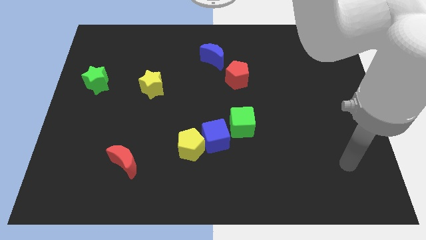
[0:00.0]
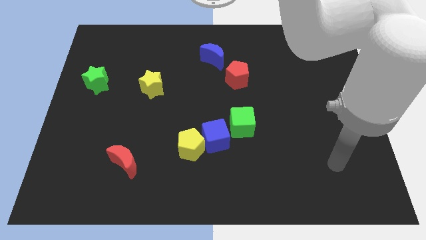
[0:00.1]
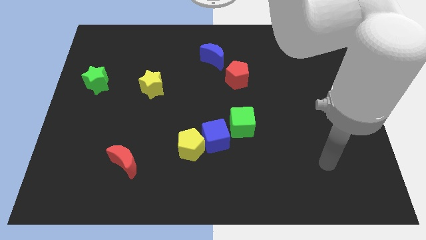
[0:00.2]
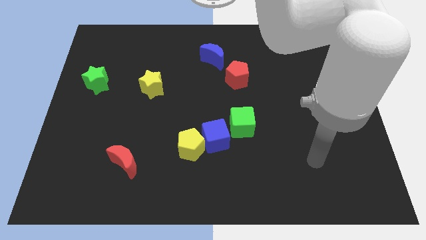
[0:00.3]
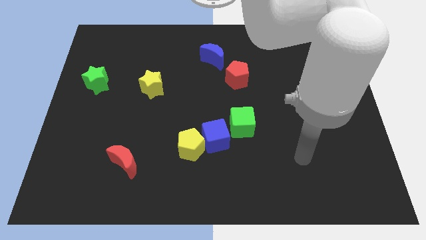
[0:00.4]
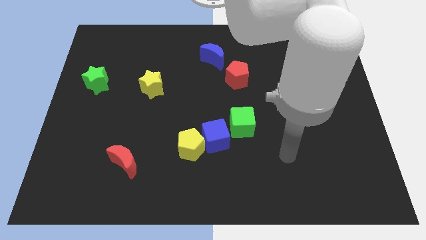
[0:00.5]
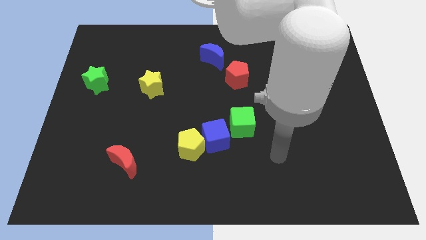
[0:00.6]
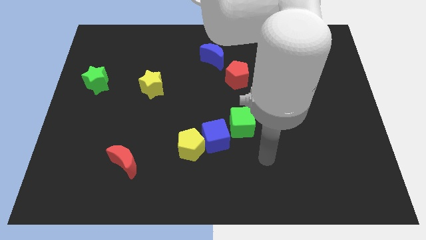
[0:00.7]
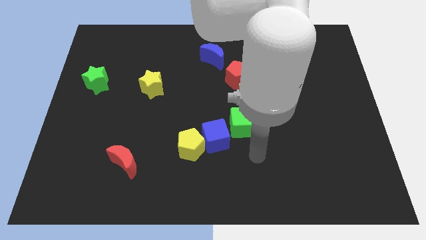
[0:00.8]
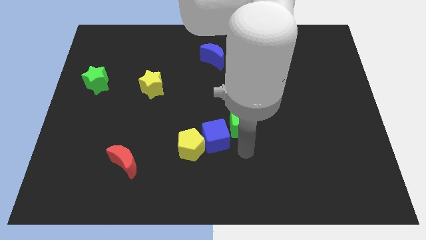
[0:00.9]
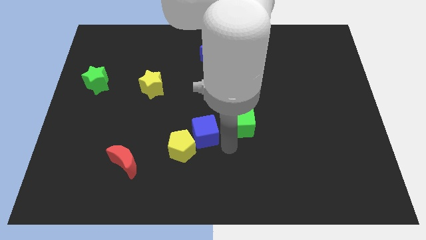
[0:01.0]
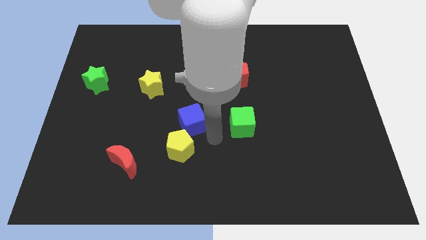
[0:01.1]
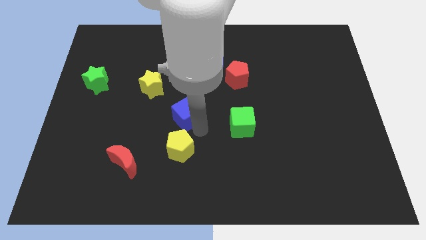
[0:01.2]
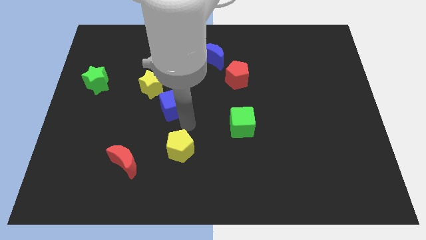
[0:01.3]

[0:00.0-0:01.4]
pull the yellow pentagon apart from the blue cube

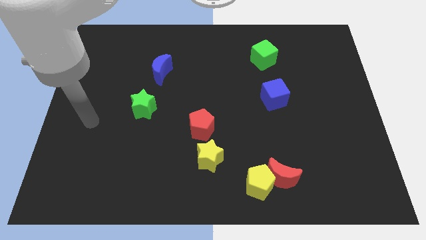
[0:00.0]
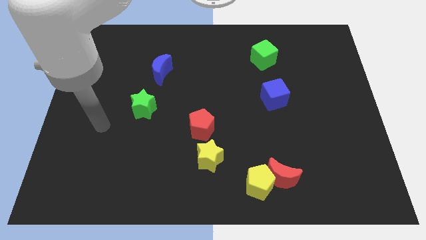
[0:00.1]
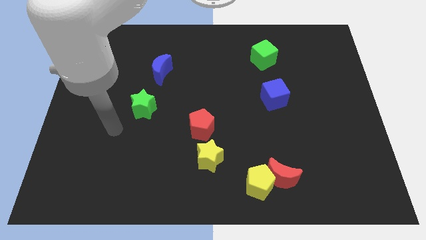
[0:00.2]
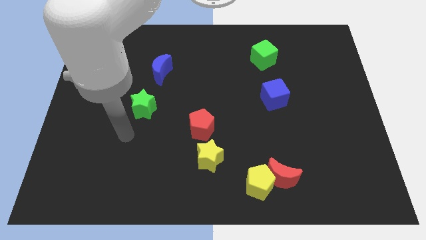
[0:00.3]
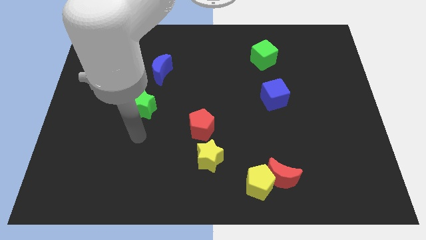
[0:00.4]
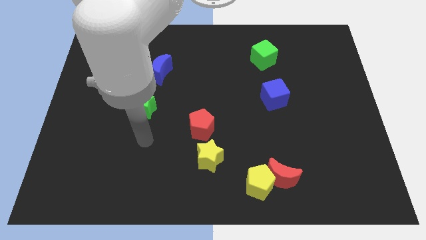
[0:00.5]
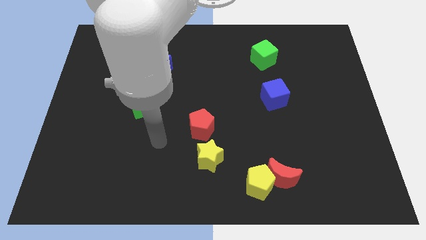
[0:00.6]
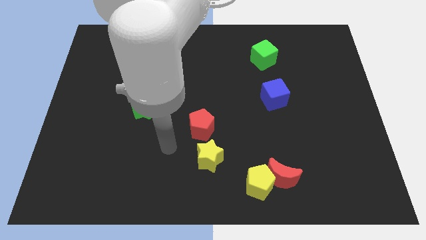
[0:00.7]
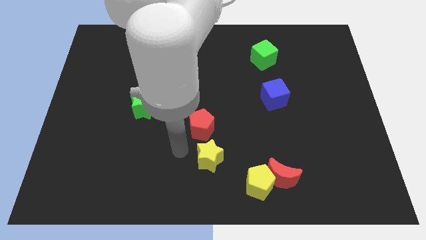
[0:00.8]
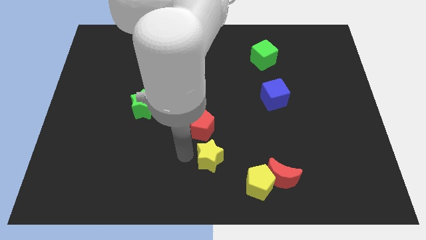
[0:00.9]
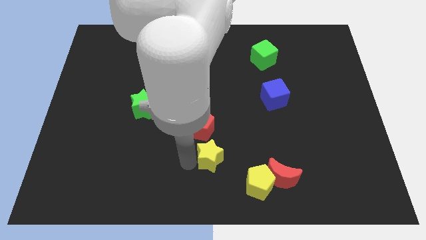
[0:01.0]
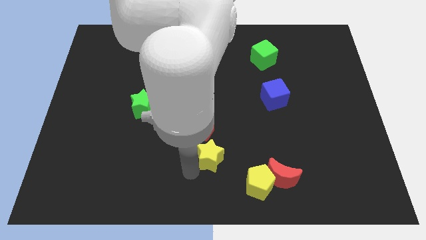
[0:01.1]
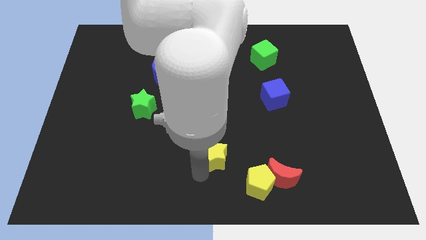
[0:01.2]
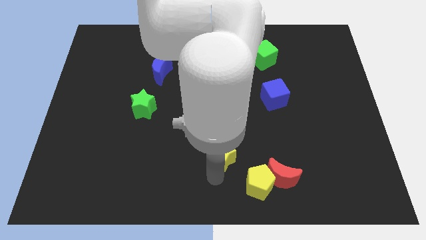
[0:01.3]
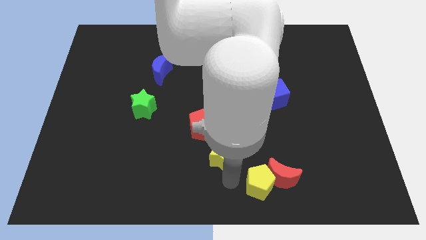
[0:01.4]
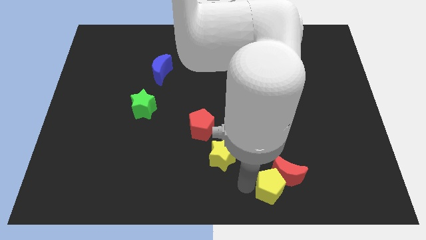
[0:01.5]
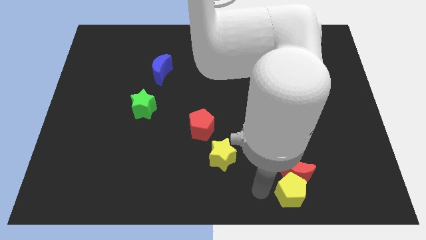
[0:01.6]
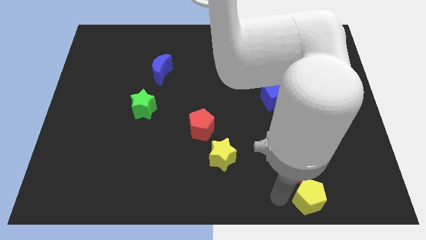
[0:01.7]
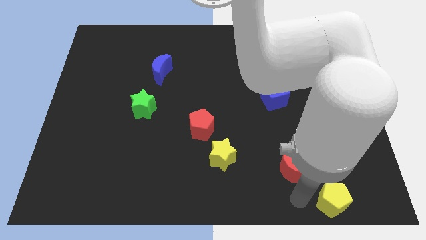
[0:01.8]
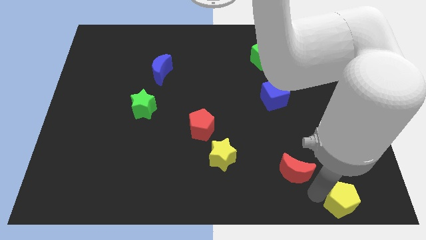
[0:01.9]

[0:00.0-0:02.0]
separate the red moon from the yellow pentagon

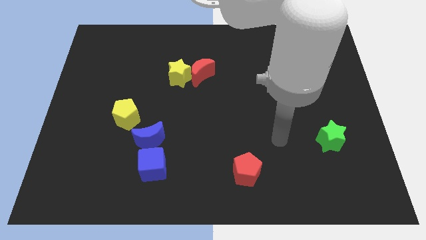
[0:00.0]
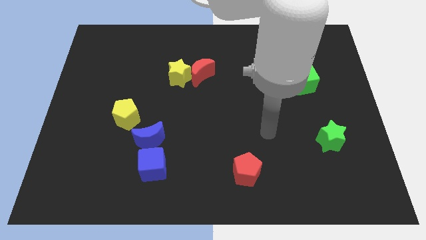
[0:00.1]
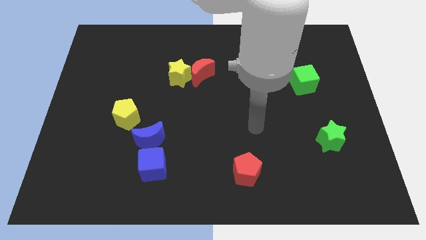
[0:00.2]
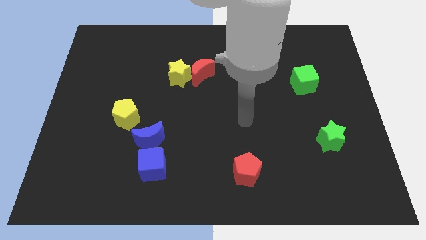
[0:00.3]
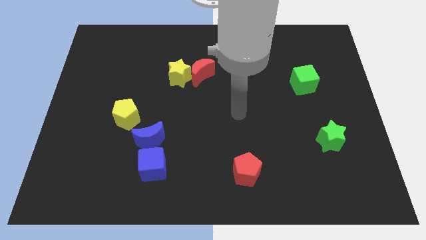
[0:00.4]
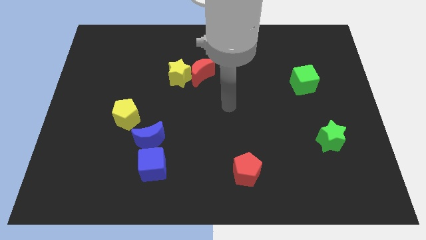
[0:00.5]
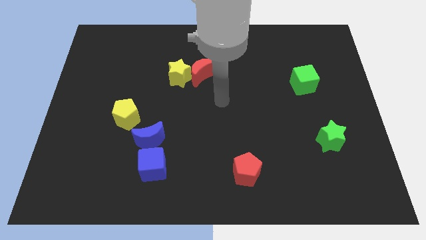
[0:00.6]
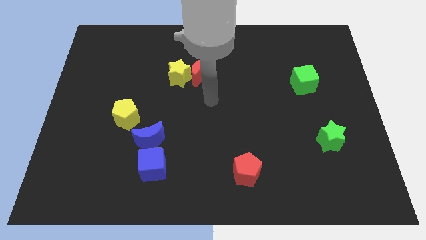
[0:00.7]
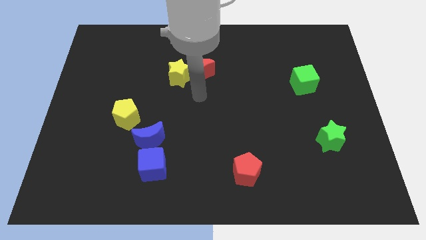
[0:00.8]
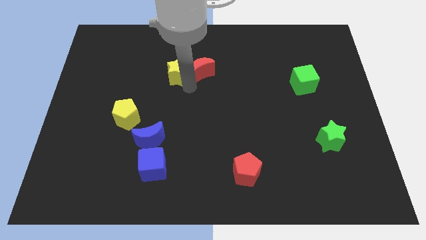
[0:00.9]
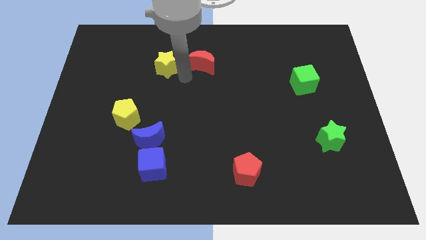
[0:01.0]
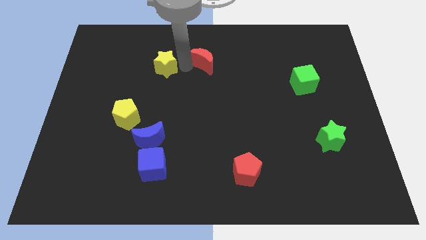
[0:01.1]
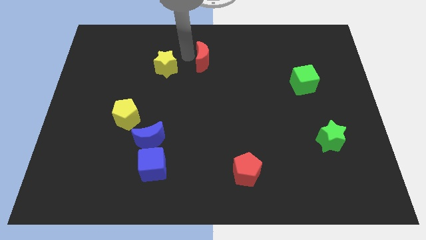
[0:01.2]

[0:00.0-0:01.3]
separate the red moon from the yellow star

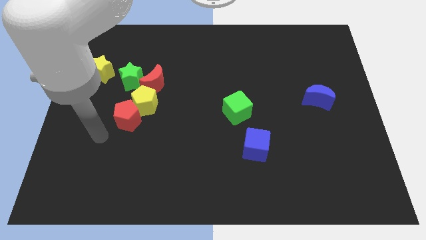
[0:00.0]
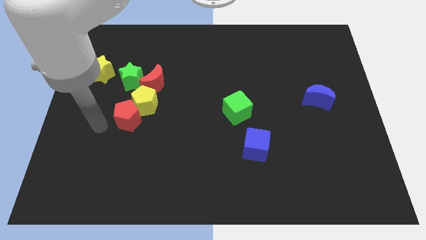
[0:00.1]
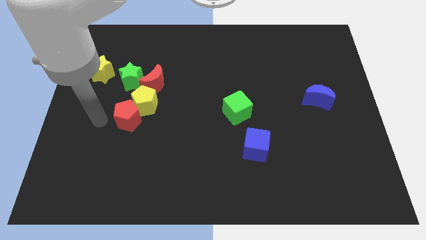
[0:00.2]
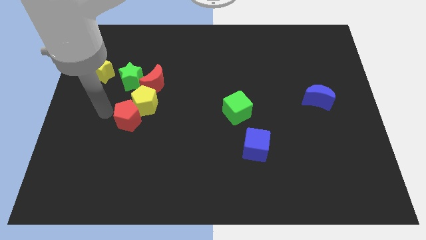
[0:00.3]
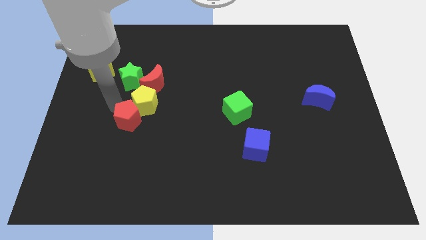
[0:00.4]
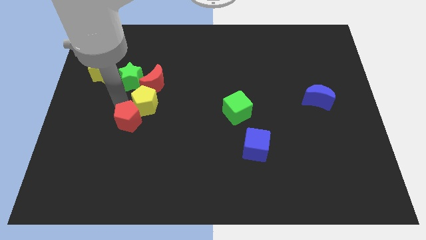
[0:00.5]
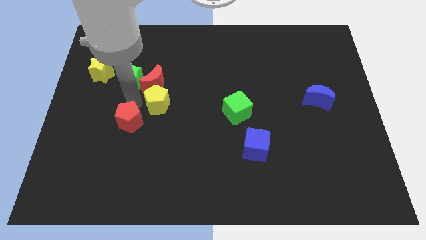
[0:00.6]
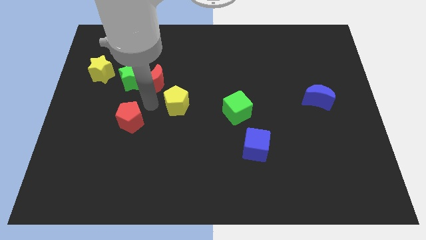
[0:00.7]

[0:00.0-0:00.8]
pull the red pentagon apart from the yellow pentagon

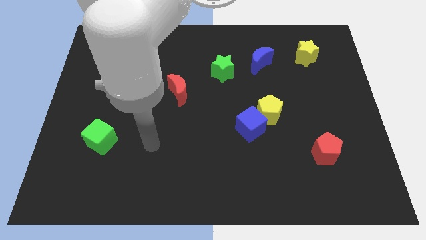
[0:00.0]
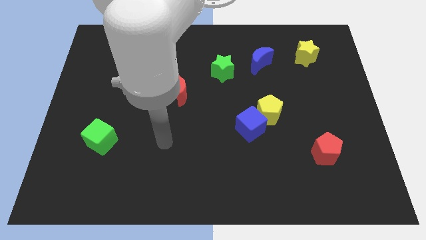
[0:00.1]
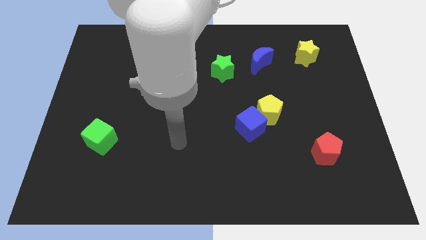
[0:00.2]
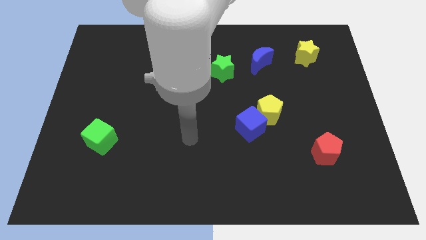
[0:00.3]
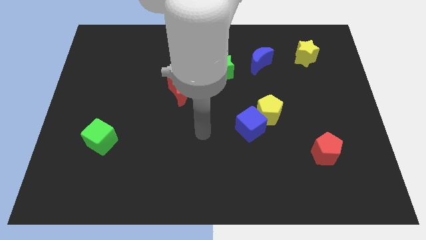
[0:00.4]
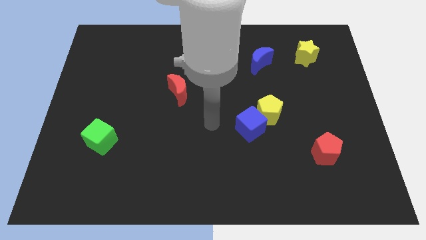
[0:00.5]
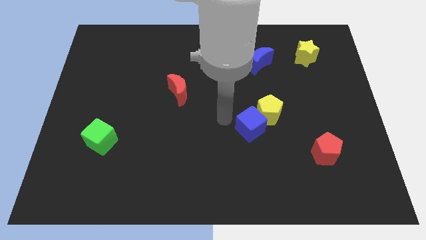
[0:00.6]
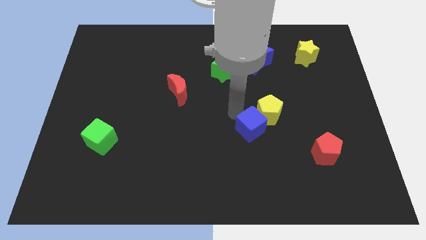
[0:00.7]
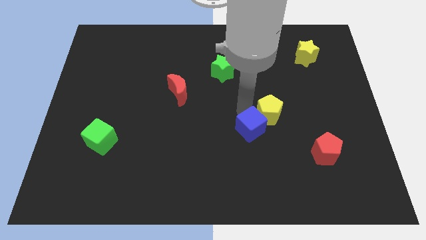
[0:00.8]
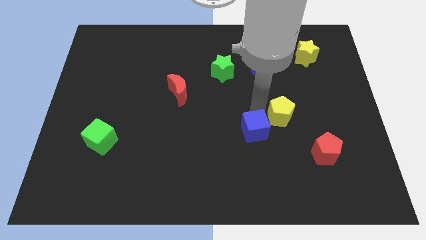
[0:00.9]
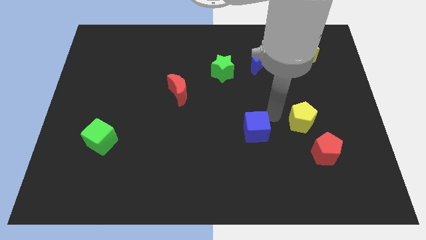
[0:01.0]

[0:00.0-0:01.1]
separate the blue cube from the yellow pentagon

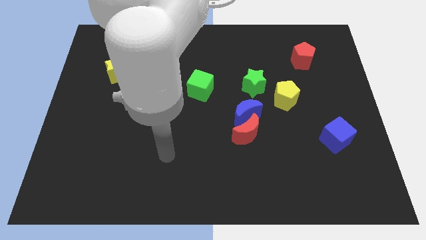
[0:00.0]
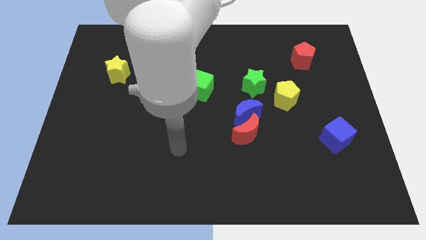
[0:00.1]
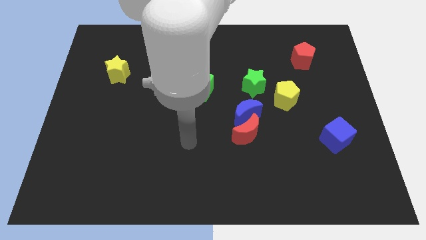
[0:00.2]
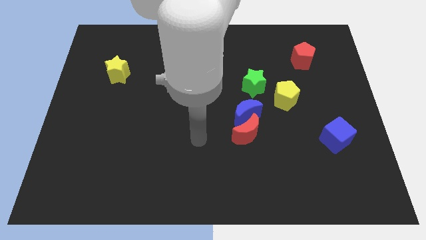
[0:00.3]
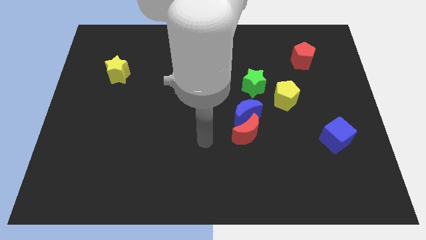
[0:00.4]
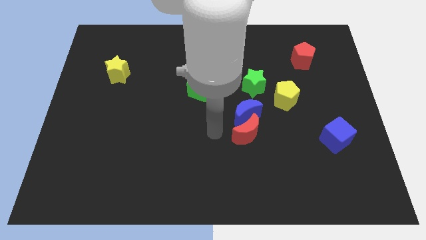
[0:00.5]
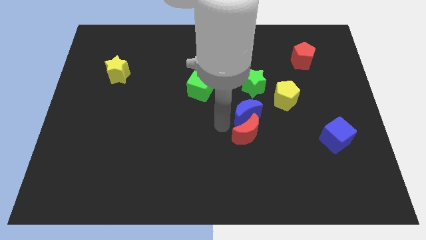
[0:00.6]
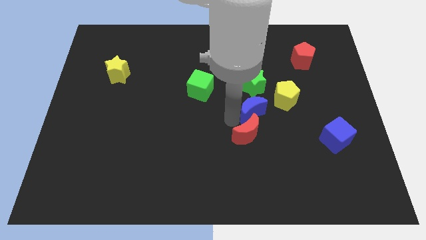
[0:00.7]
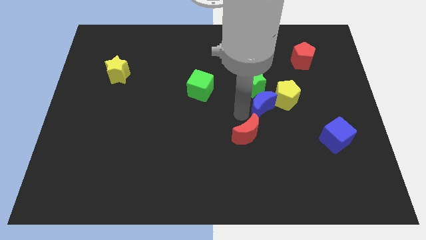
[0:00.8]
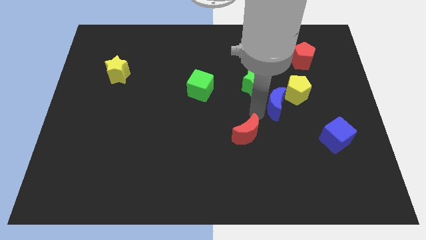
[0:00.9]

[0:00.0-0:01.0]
separate the red moon from the blue moon

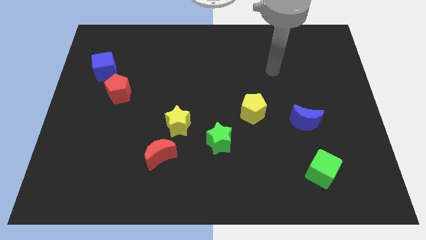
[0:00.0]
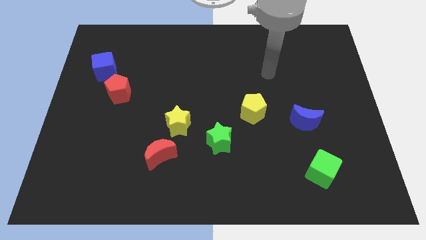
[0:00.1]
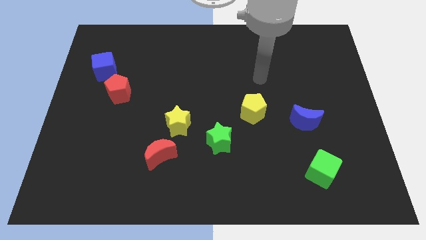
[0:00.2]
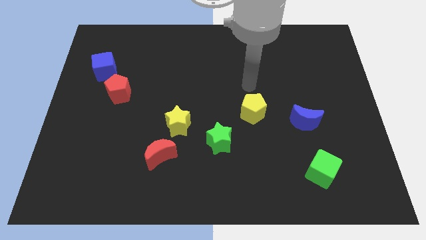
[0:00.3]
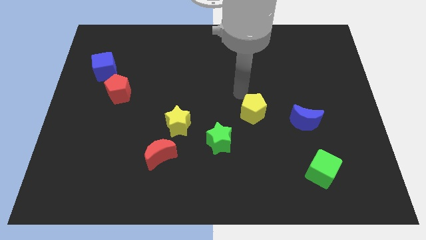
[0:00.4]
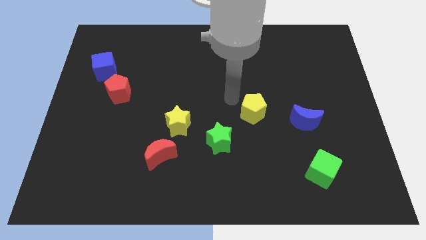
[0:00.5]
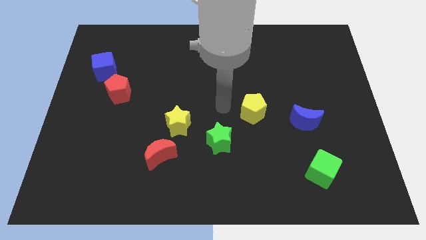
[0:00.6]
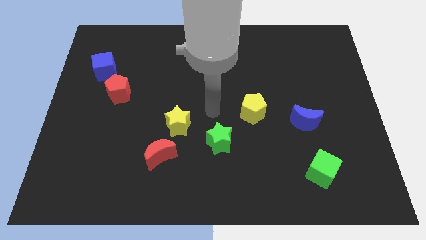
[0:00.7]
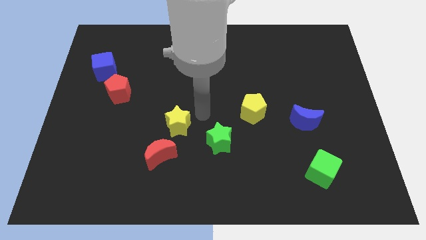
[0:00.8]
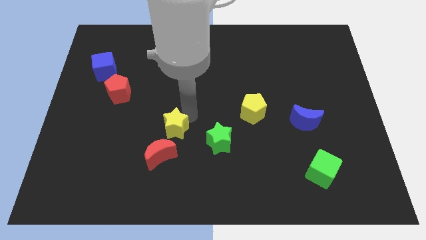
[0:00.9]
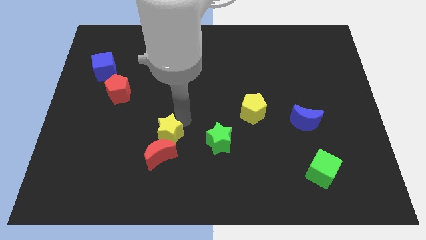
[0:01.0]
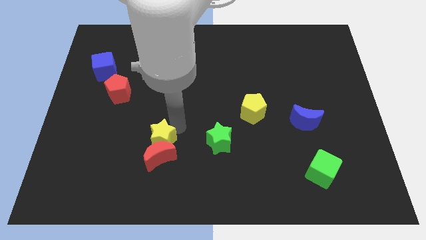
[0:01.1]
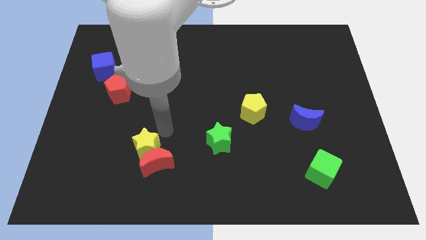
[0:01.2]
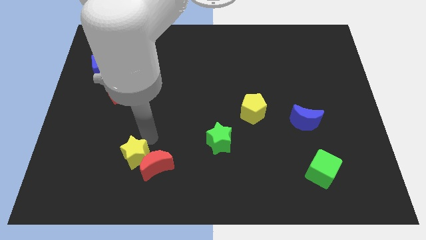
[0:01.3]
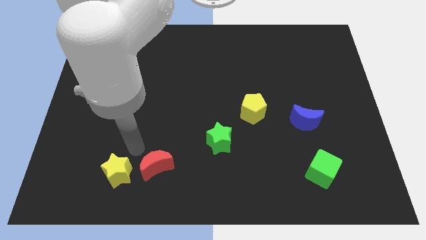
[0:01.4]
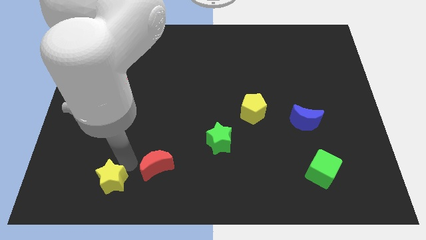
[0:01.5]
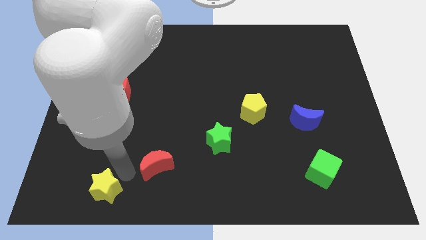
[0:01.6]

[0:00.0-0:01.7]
pull the red moon apart from the yellow star
